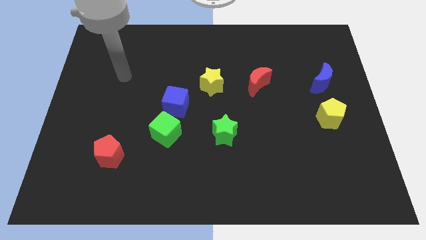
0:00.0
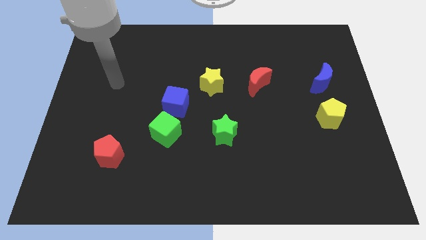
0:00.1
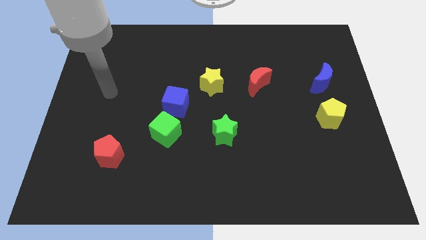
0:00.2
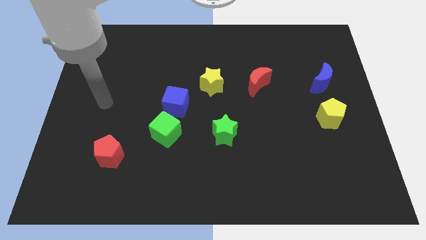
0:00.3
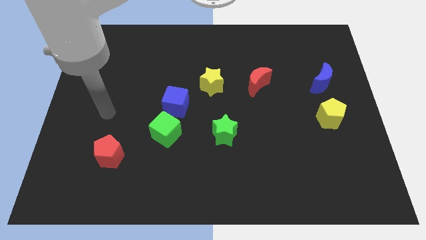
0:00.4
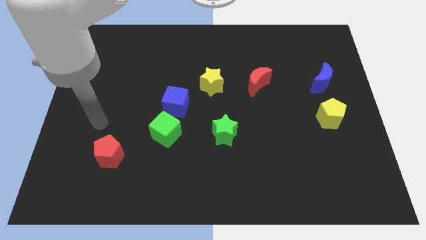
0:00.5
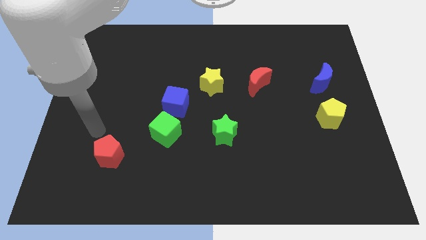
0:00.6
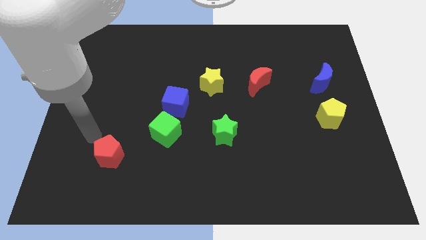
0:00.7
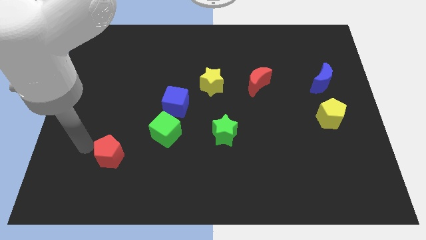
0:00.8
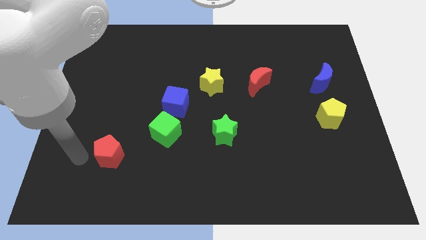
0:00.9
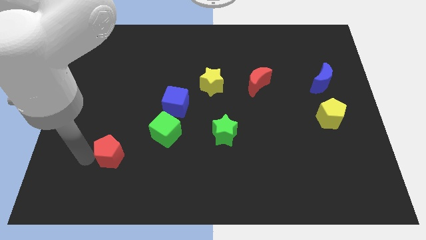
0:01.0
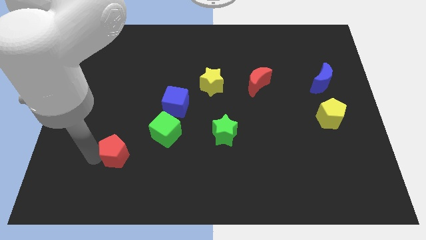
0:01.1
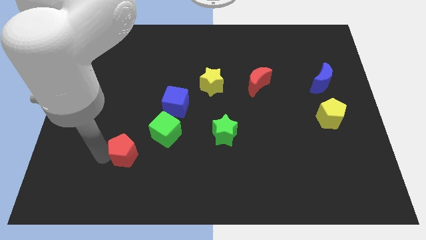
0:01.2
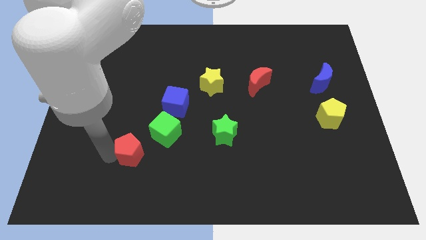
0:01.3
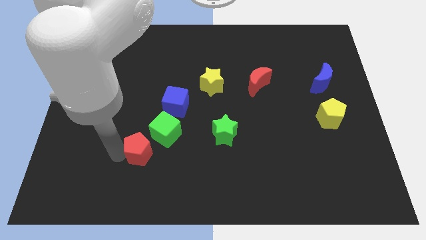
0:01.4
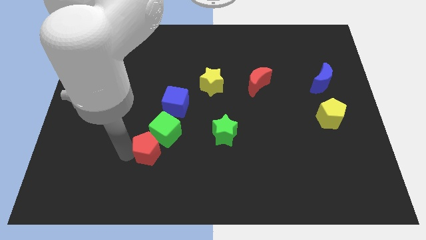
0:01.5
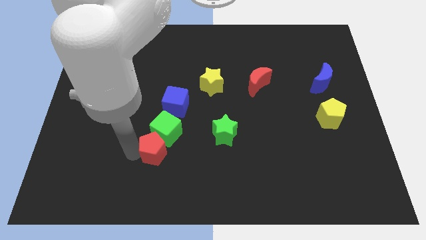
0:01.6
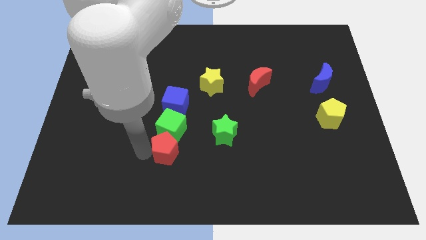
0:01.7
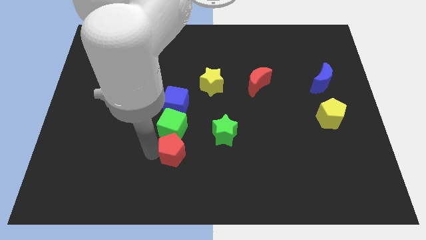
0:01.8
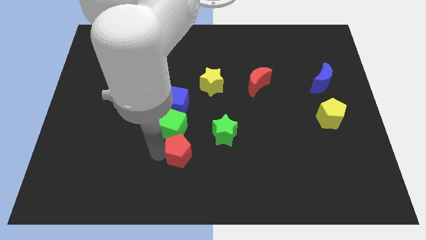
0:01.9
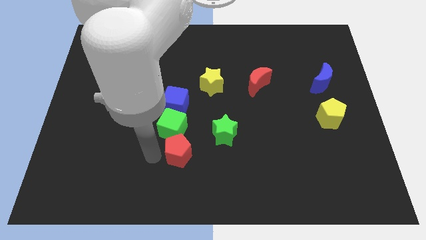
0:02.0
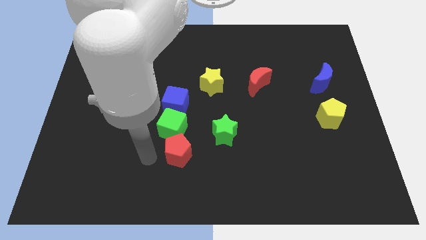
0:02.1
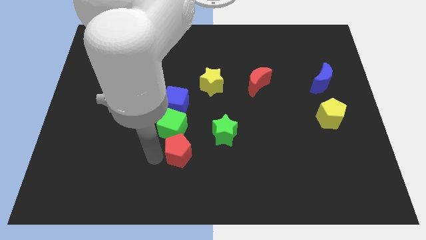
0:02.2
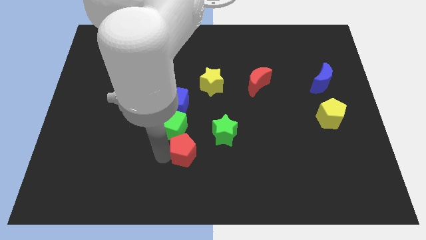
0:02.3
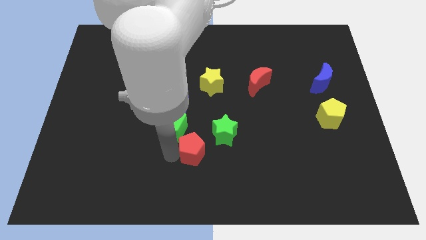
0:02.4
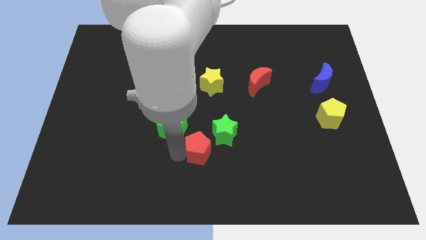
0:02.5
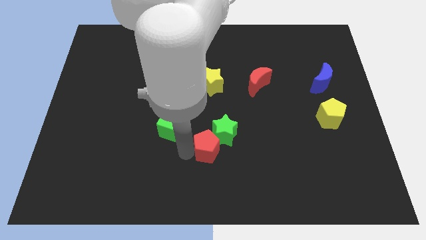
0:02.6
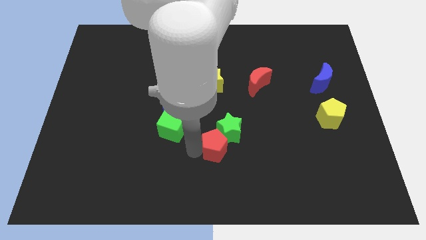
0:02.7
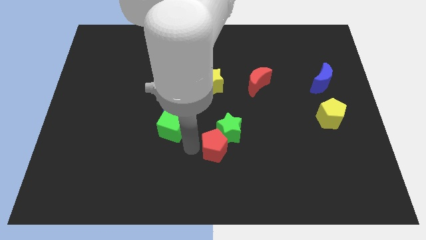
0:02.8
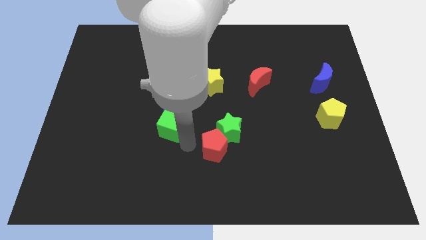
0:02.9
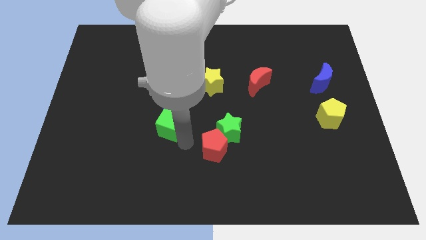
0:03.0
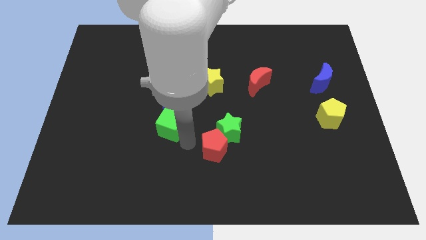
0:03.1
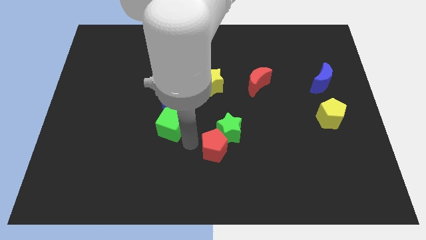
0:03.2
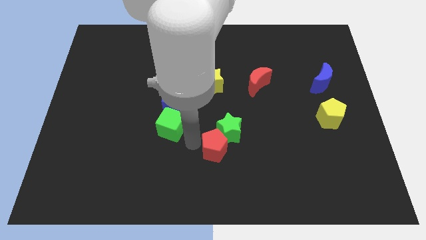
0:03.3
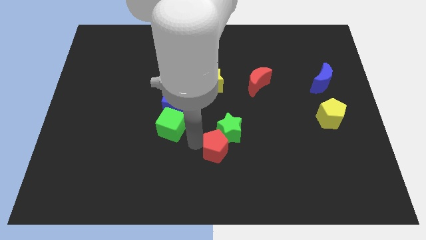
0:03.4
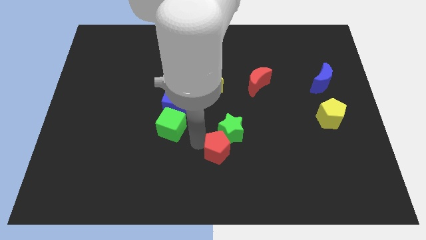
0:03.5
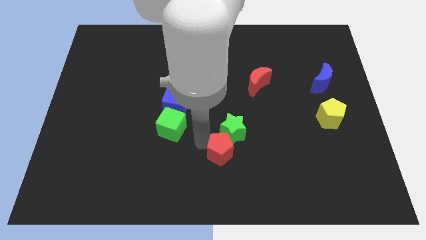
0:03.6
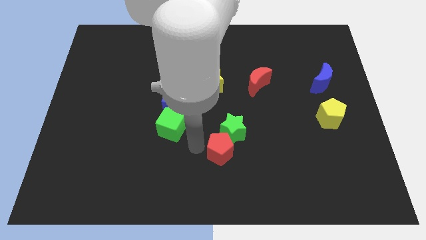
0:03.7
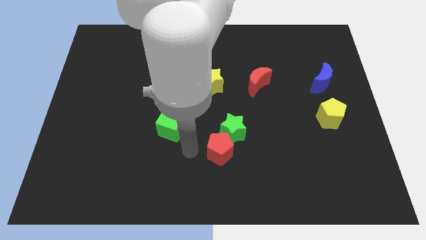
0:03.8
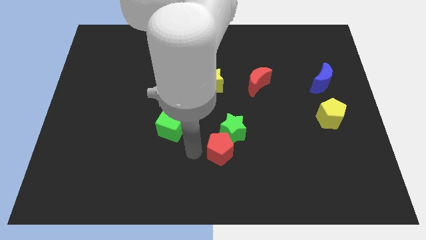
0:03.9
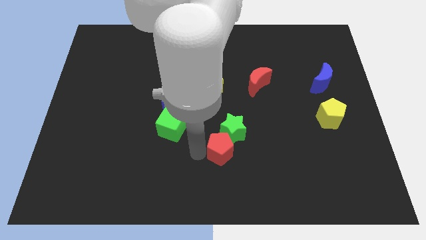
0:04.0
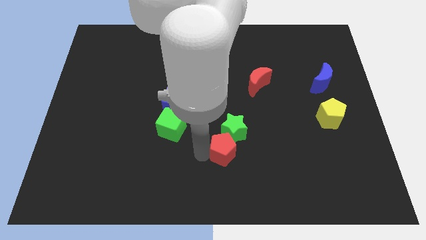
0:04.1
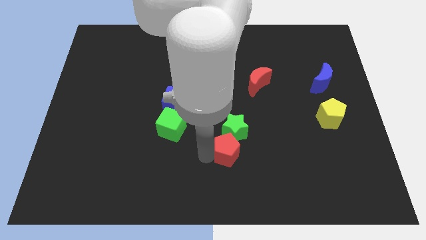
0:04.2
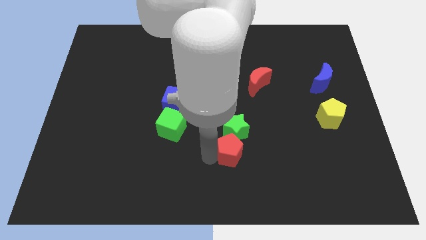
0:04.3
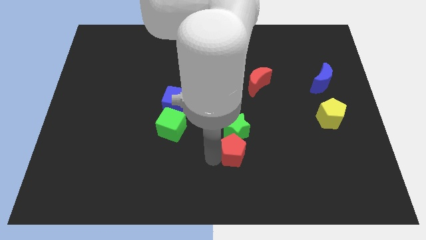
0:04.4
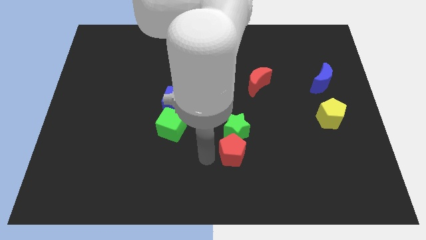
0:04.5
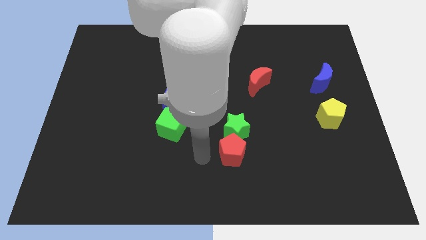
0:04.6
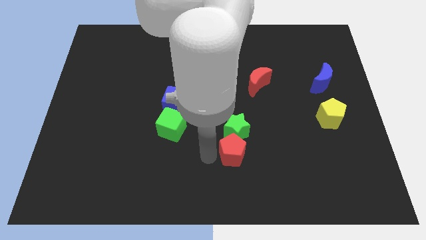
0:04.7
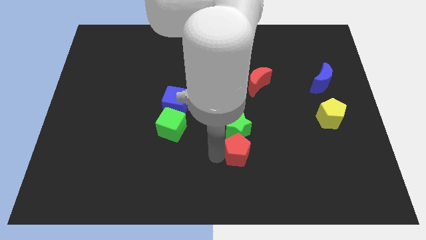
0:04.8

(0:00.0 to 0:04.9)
push the red pentagon to the bottom right of the green star

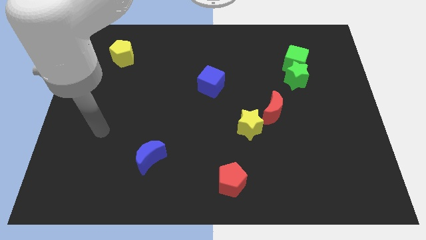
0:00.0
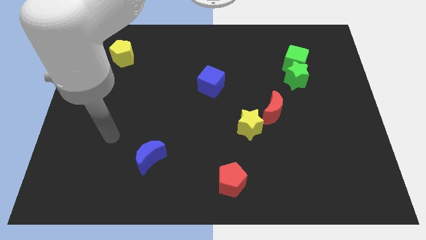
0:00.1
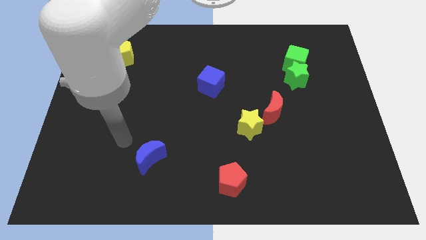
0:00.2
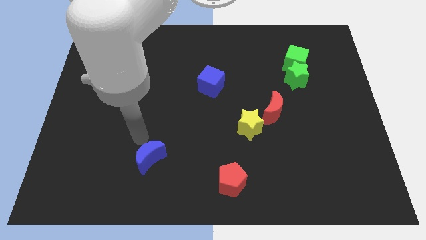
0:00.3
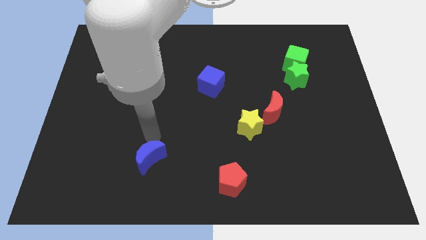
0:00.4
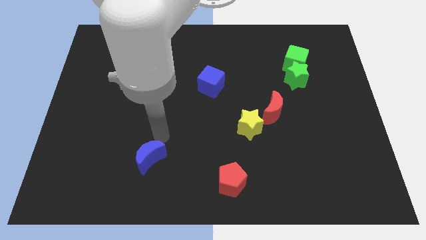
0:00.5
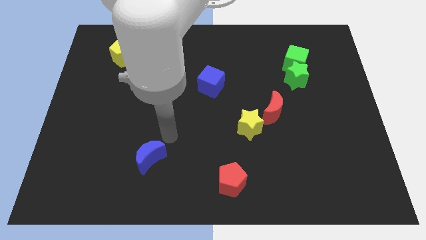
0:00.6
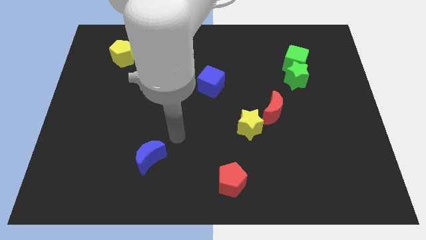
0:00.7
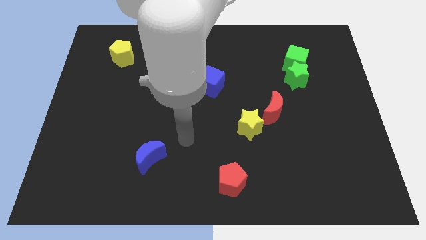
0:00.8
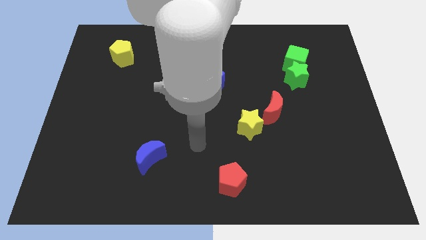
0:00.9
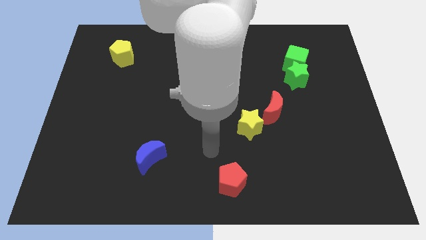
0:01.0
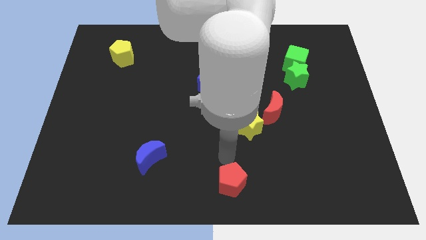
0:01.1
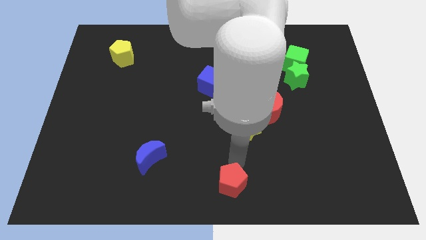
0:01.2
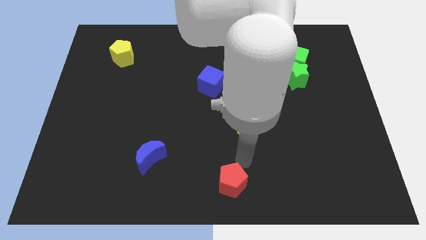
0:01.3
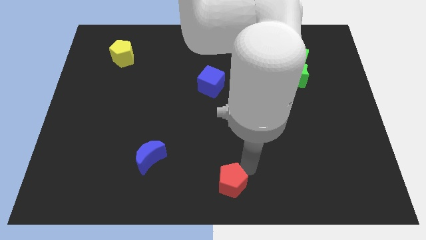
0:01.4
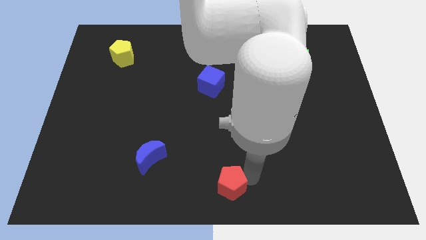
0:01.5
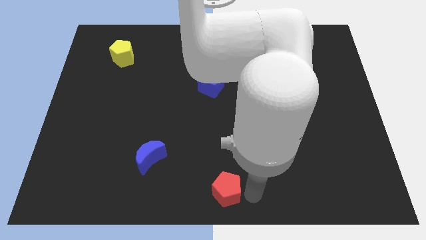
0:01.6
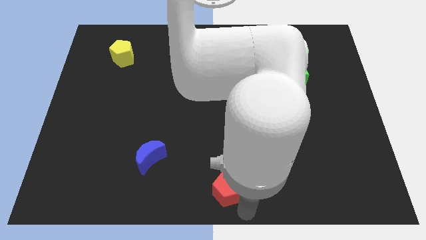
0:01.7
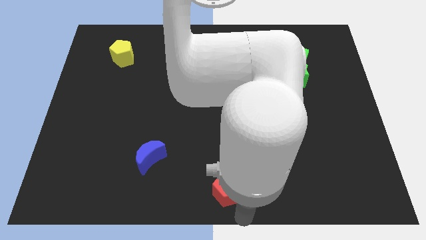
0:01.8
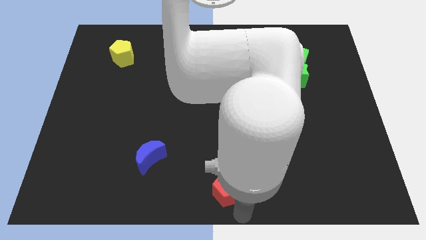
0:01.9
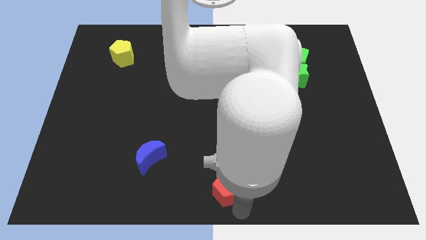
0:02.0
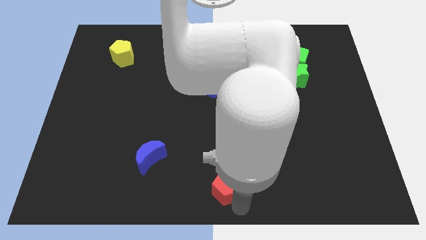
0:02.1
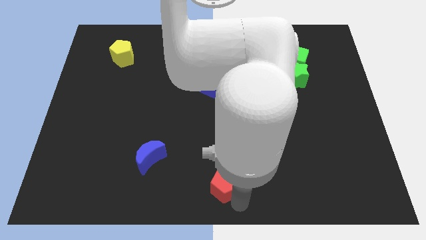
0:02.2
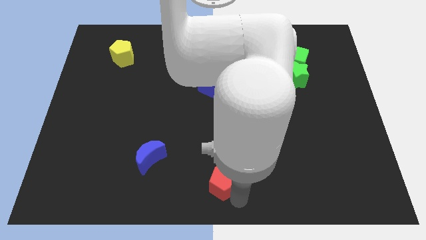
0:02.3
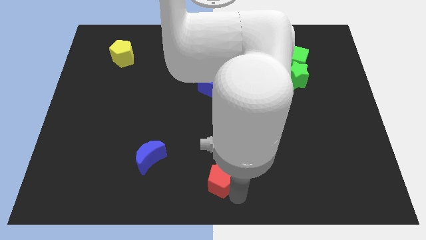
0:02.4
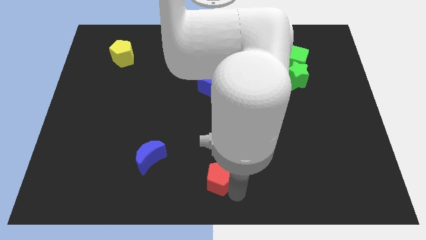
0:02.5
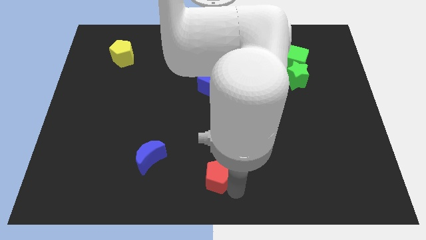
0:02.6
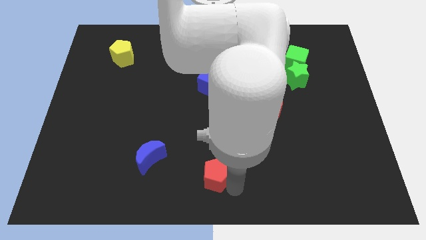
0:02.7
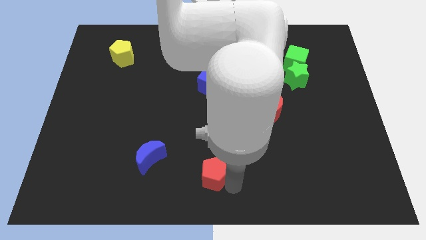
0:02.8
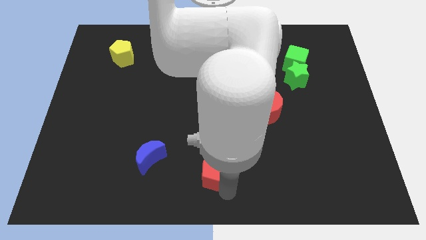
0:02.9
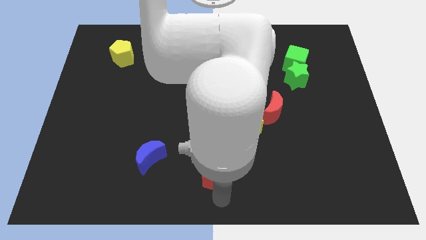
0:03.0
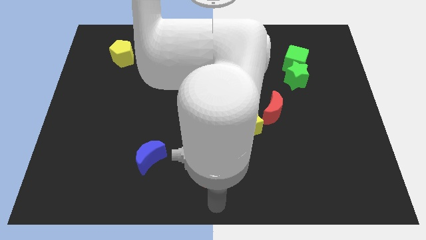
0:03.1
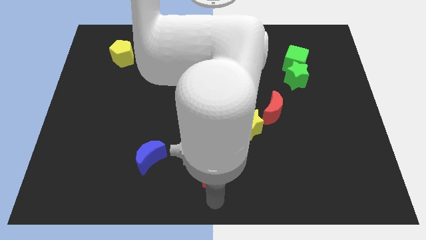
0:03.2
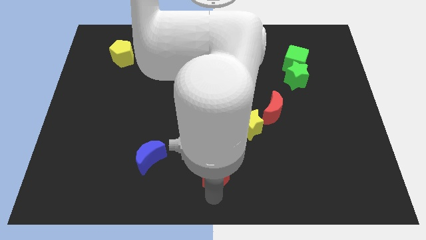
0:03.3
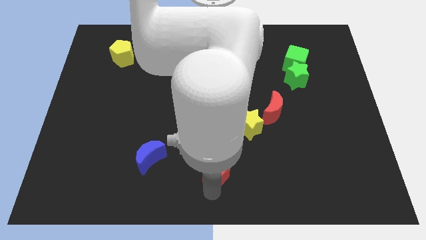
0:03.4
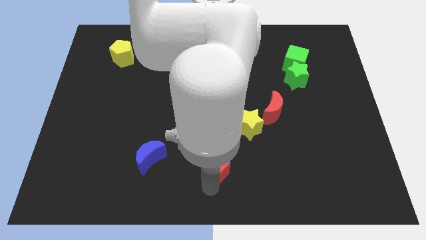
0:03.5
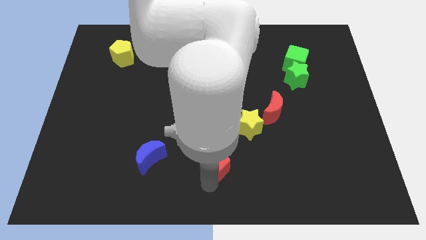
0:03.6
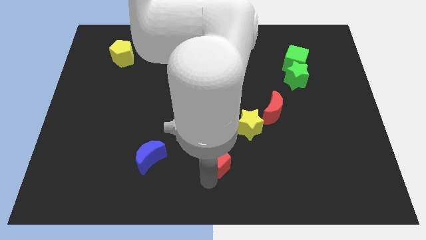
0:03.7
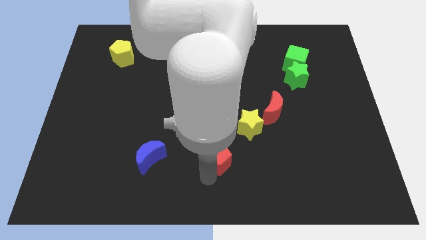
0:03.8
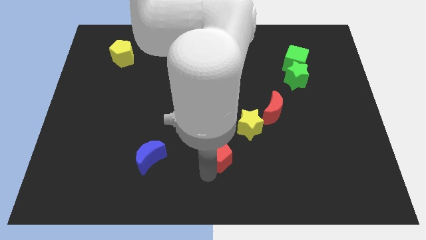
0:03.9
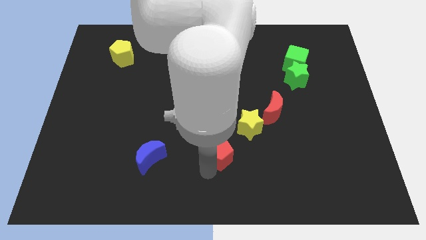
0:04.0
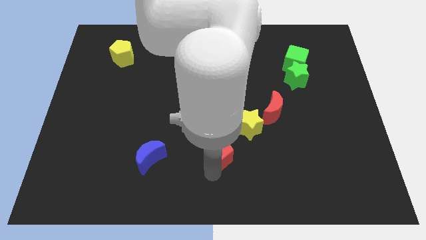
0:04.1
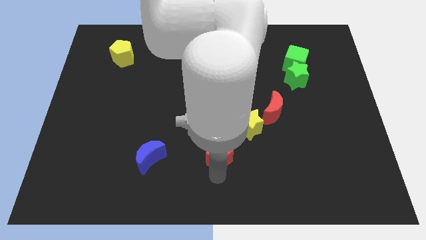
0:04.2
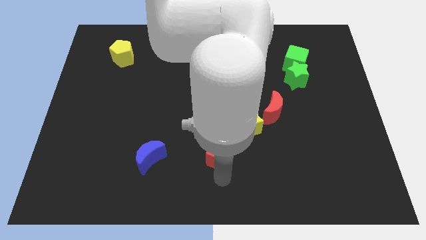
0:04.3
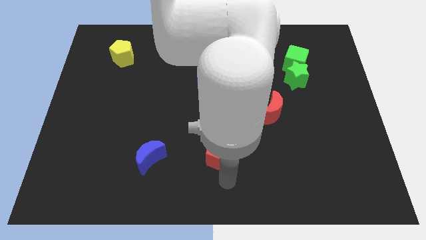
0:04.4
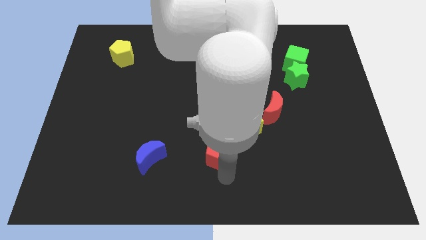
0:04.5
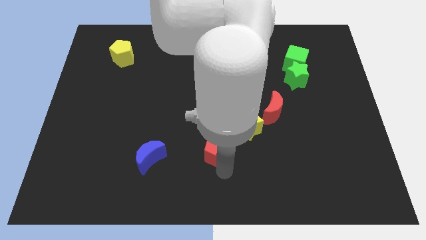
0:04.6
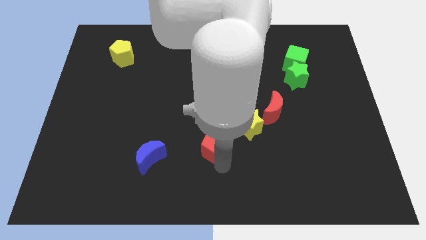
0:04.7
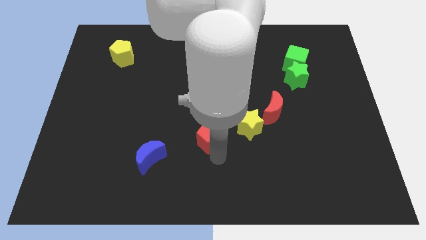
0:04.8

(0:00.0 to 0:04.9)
put the red pentagon to the bottom side of the blue cube
